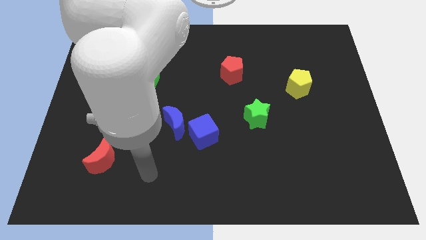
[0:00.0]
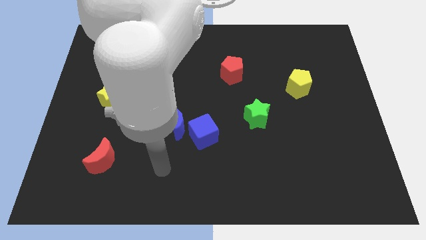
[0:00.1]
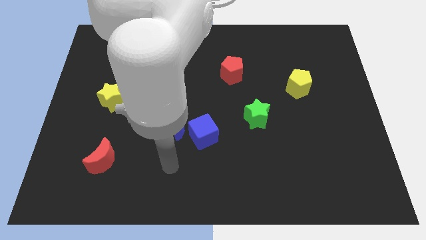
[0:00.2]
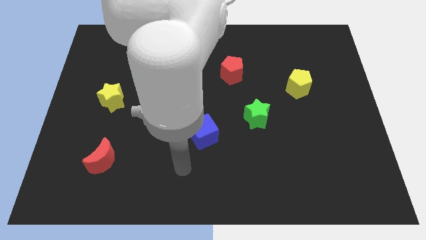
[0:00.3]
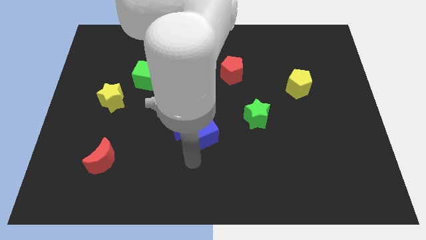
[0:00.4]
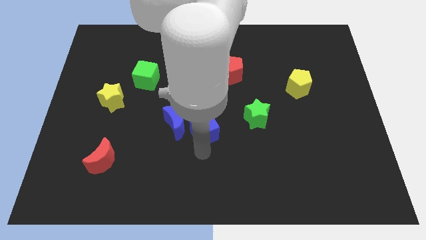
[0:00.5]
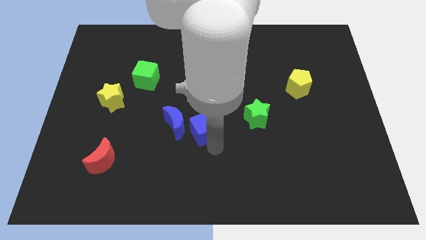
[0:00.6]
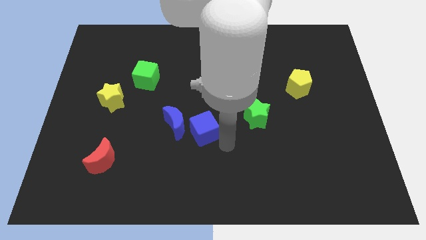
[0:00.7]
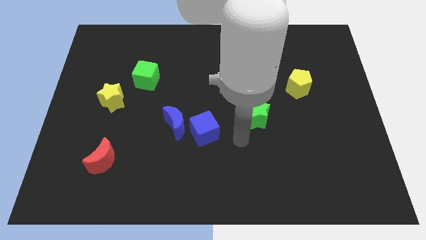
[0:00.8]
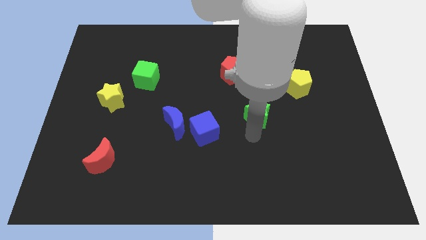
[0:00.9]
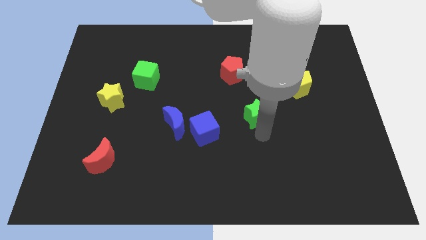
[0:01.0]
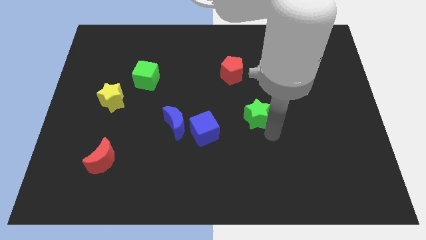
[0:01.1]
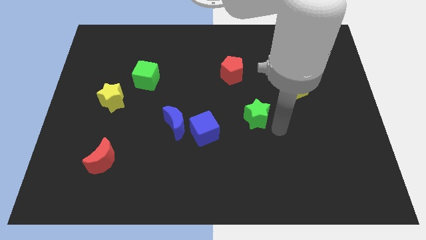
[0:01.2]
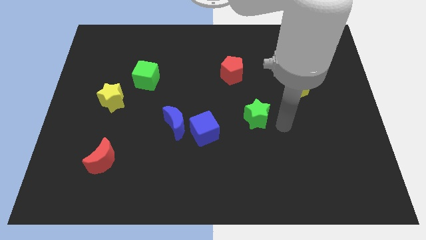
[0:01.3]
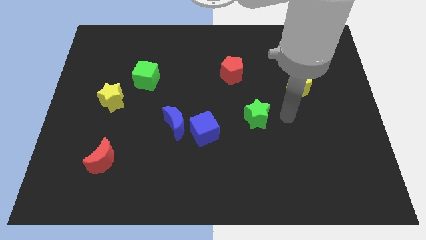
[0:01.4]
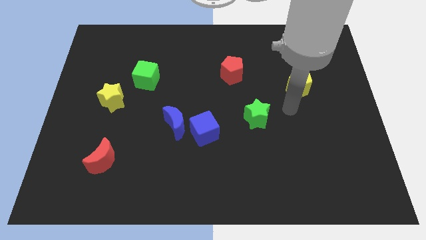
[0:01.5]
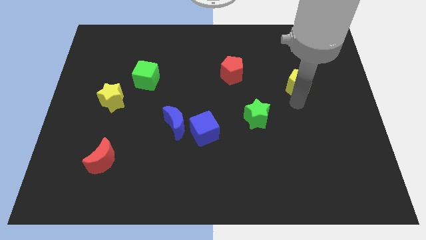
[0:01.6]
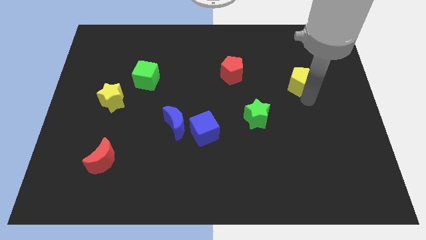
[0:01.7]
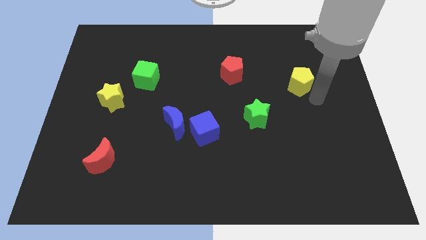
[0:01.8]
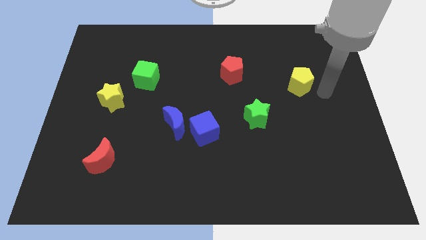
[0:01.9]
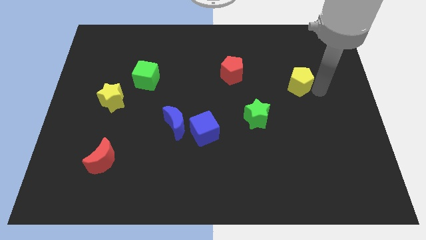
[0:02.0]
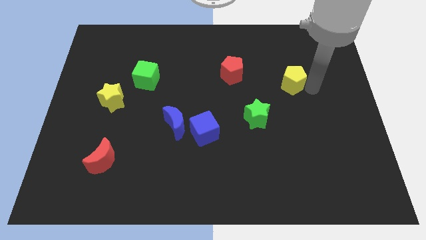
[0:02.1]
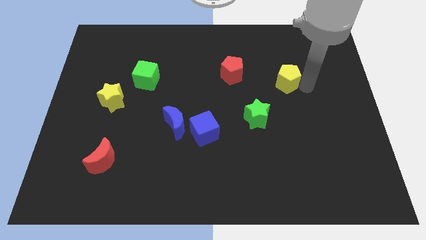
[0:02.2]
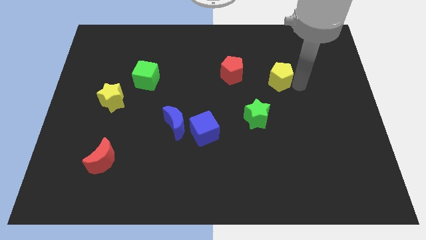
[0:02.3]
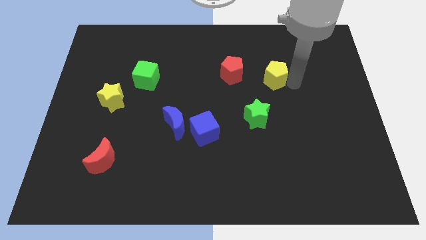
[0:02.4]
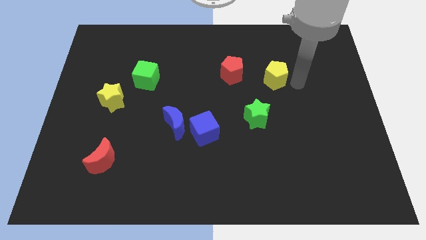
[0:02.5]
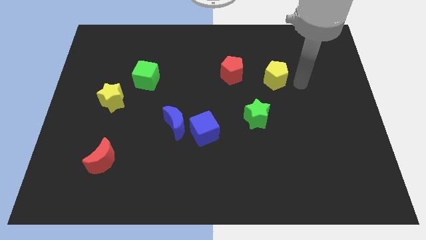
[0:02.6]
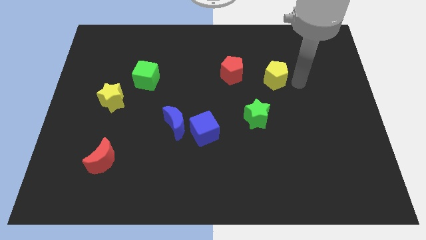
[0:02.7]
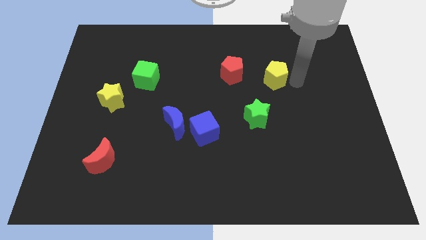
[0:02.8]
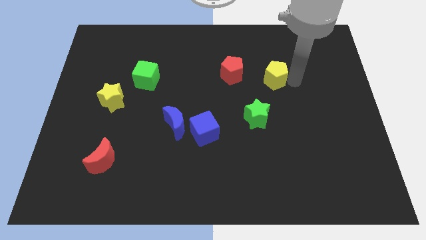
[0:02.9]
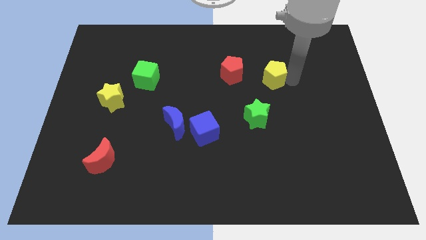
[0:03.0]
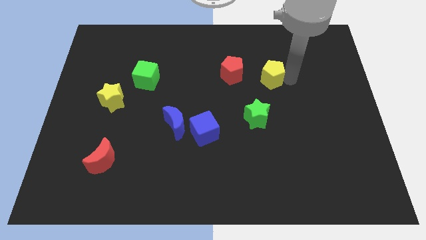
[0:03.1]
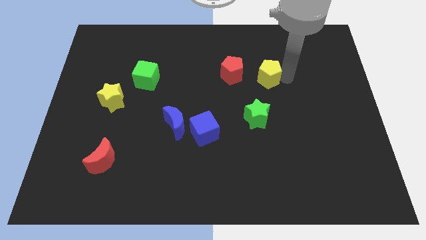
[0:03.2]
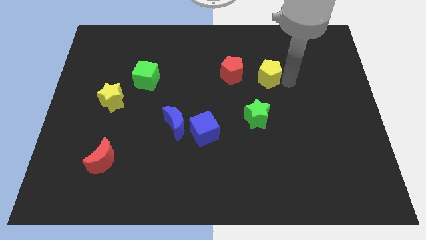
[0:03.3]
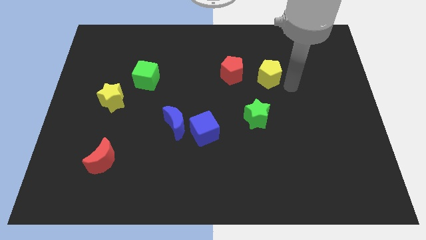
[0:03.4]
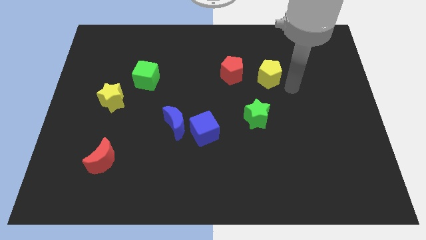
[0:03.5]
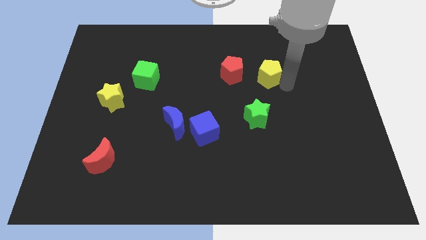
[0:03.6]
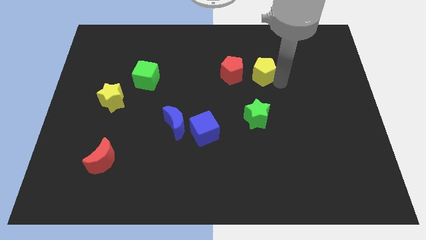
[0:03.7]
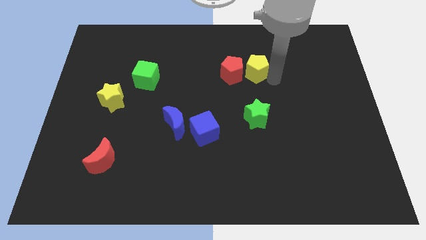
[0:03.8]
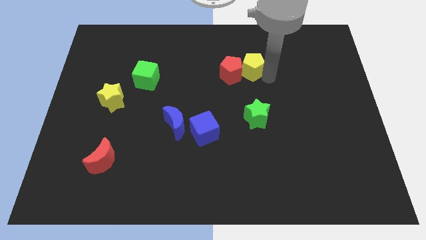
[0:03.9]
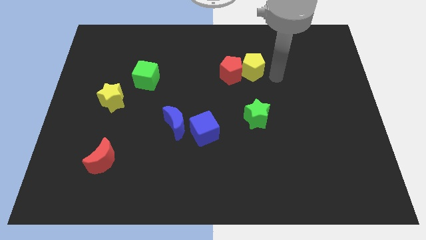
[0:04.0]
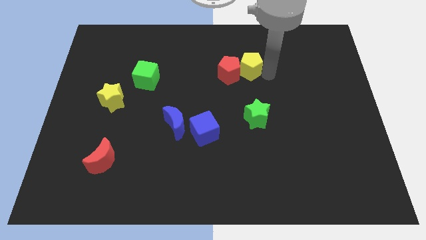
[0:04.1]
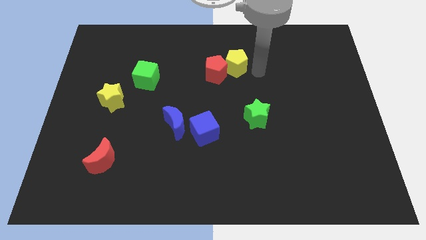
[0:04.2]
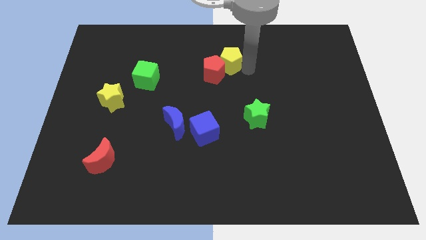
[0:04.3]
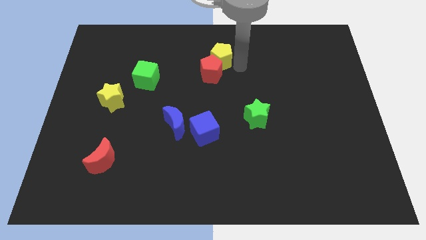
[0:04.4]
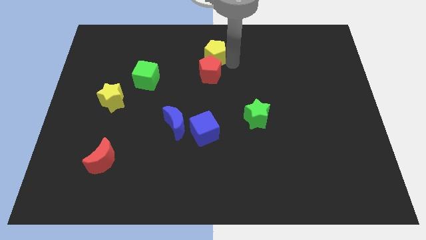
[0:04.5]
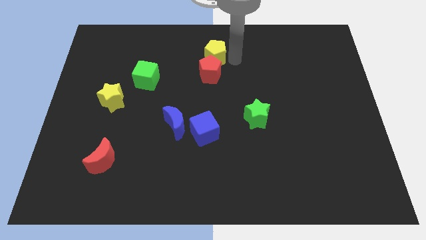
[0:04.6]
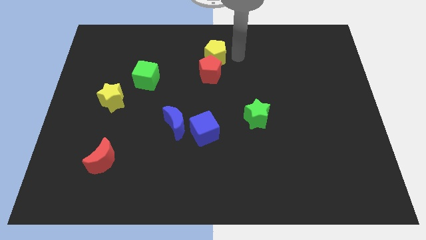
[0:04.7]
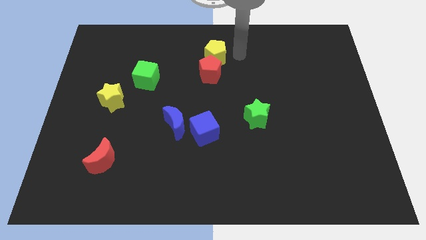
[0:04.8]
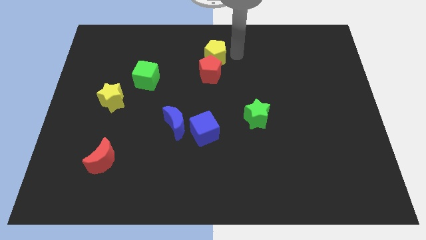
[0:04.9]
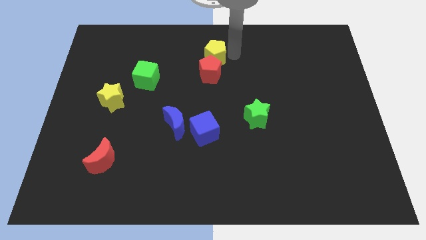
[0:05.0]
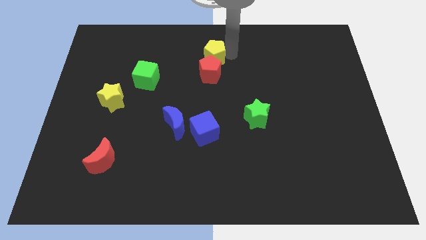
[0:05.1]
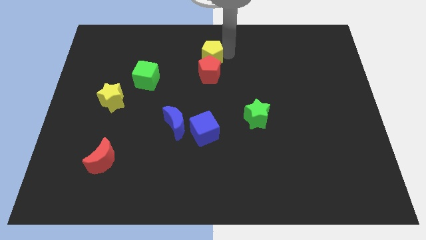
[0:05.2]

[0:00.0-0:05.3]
put the yellow pentagon to the top left side of the red pentagon

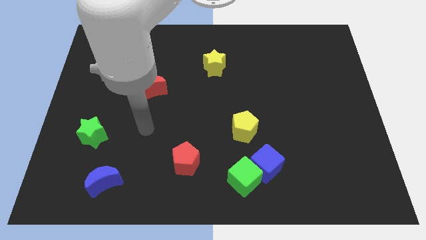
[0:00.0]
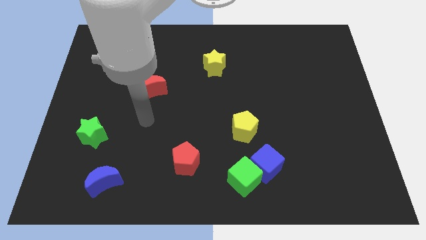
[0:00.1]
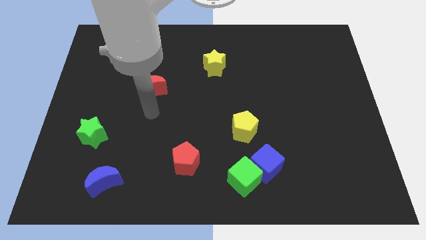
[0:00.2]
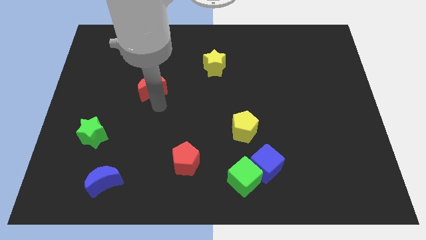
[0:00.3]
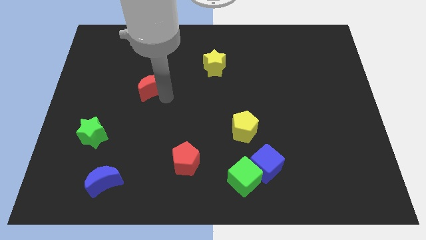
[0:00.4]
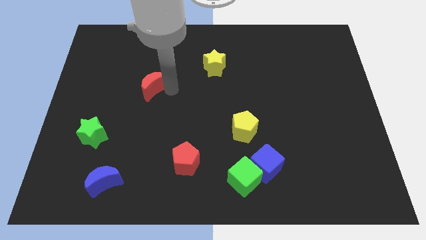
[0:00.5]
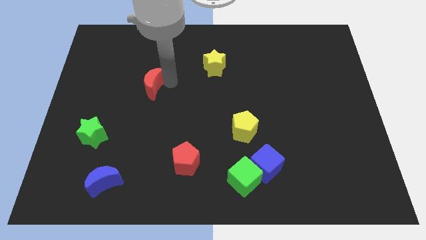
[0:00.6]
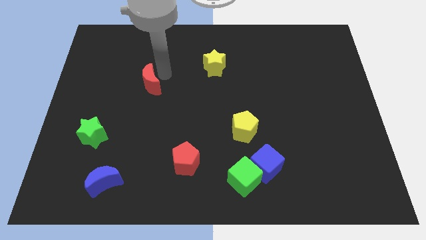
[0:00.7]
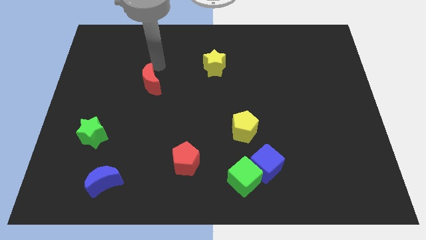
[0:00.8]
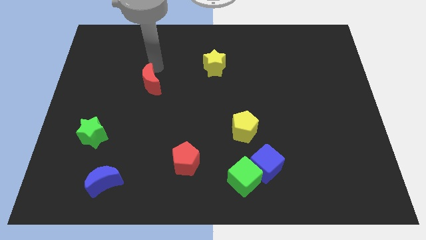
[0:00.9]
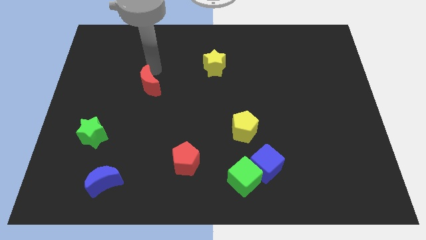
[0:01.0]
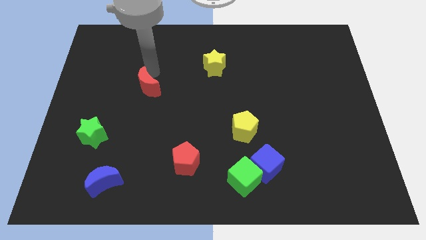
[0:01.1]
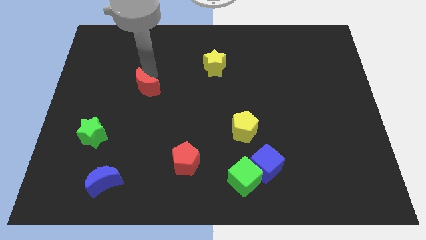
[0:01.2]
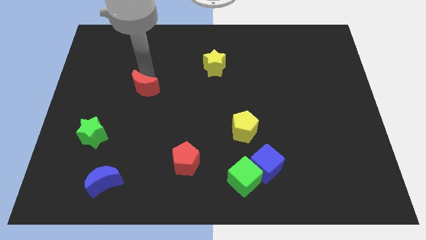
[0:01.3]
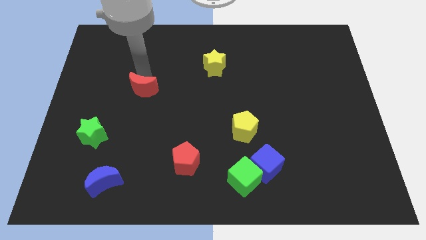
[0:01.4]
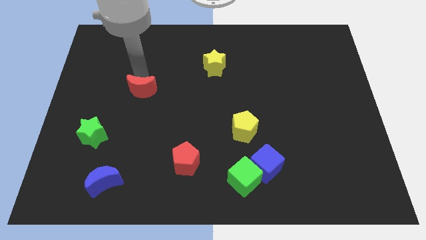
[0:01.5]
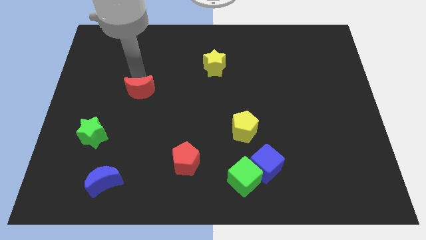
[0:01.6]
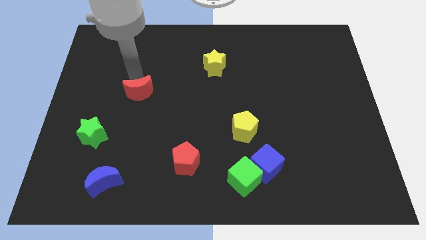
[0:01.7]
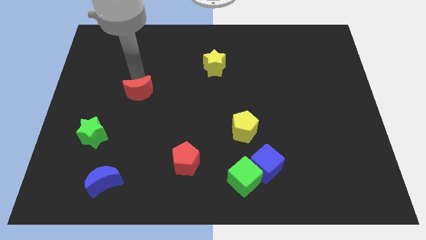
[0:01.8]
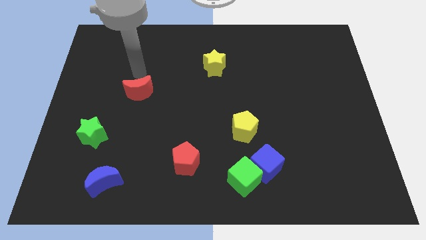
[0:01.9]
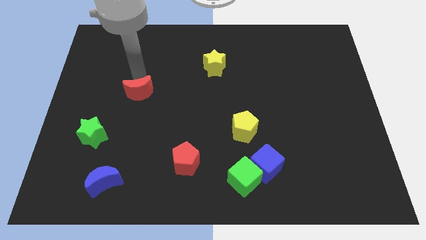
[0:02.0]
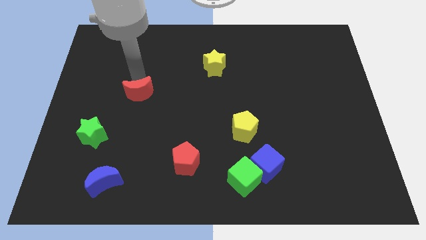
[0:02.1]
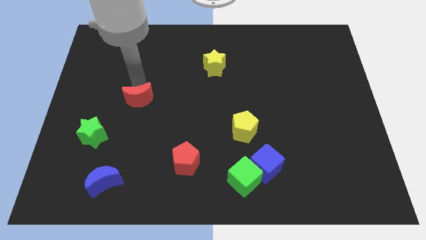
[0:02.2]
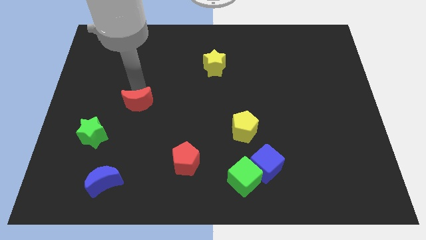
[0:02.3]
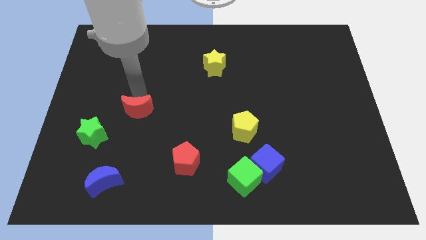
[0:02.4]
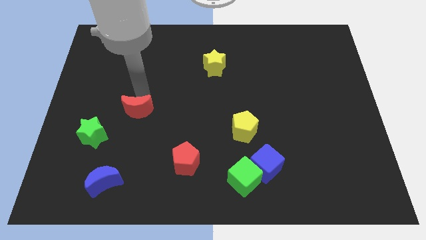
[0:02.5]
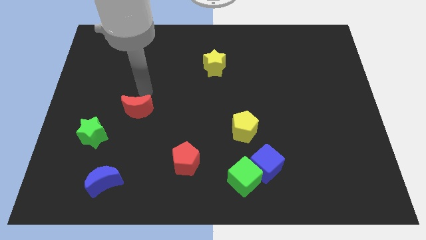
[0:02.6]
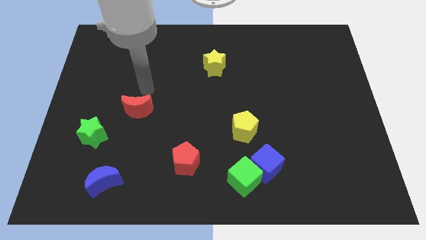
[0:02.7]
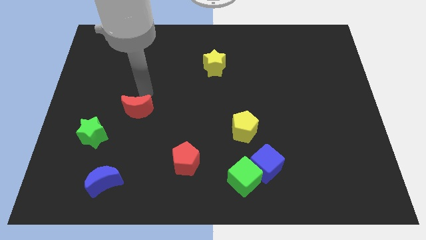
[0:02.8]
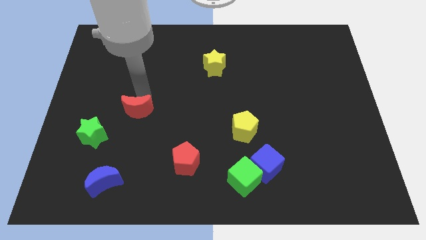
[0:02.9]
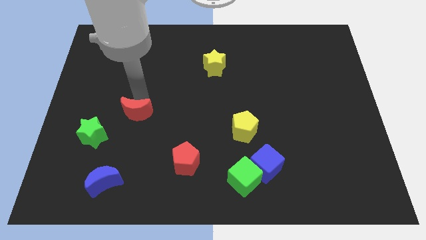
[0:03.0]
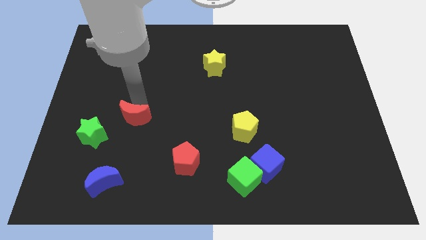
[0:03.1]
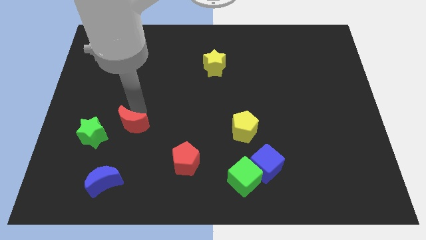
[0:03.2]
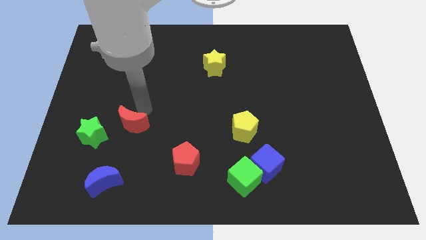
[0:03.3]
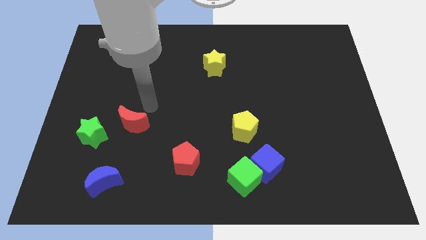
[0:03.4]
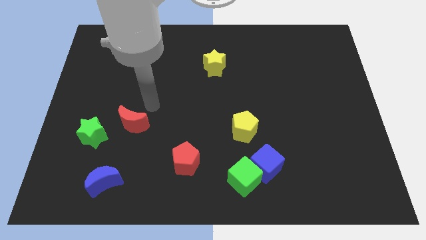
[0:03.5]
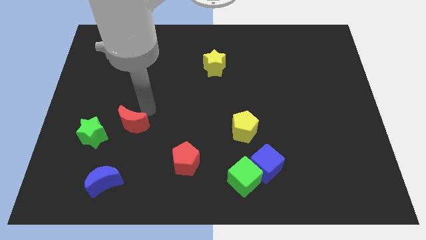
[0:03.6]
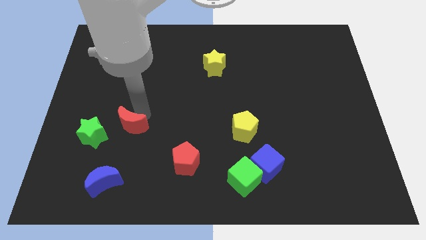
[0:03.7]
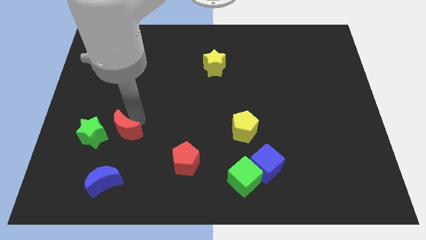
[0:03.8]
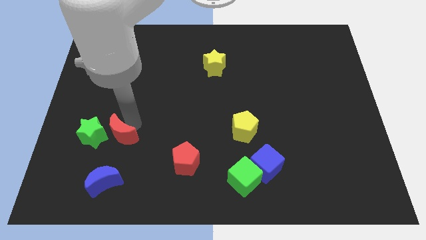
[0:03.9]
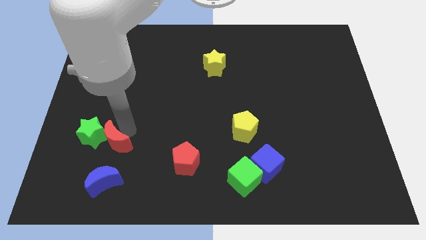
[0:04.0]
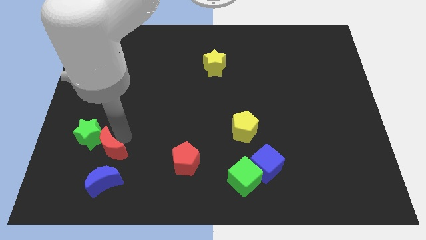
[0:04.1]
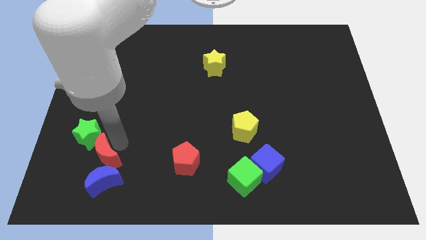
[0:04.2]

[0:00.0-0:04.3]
put the red moon to the top left of the blue moon
